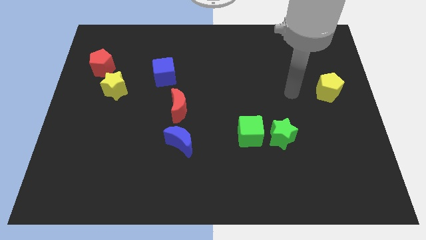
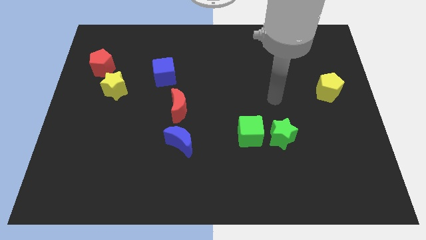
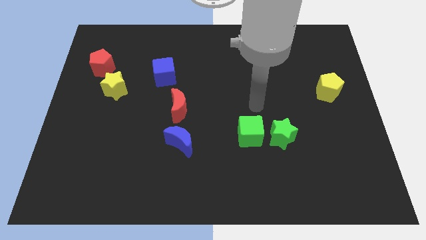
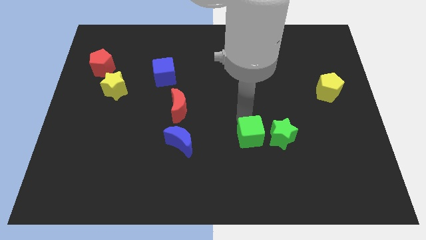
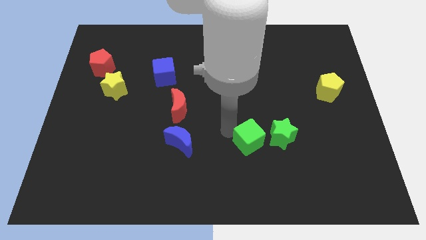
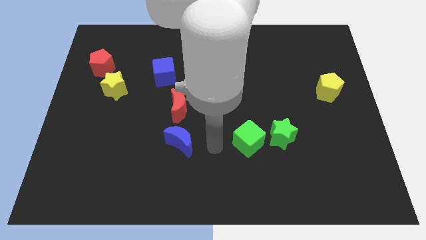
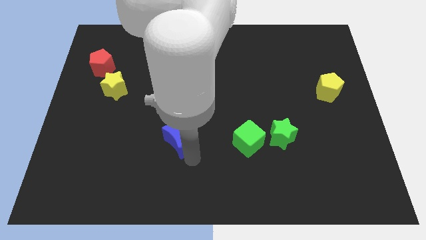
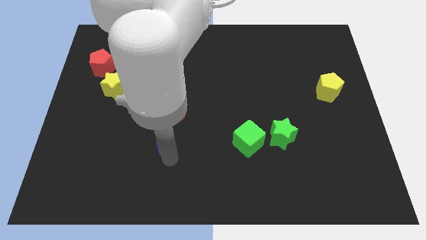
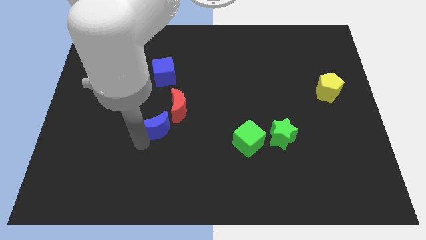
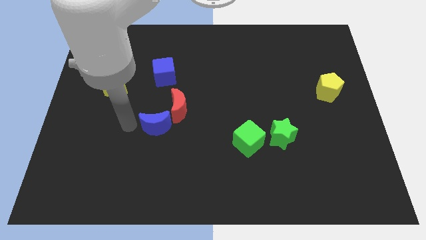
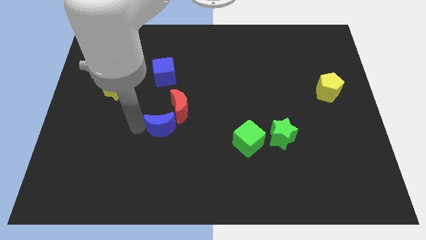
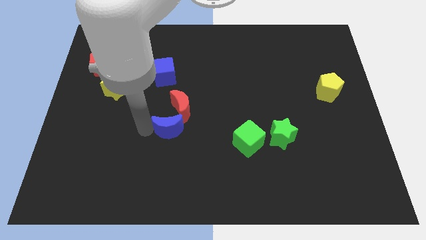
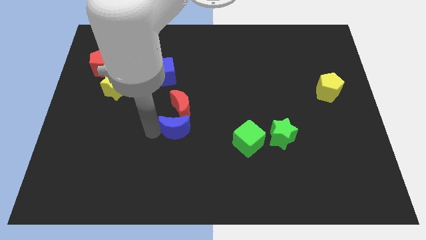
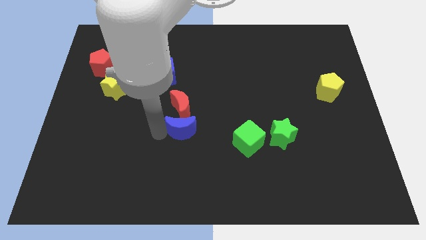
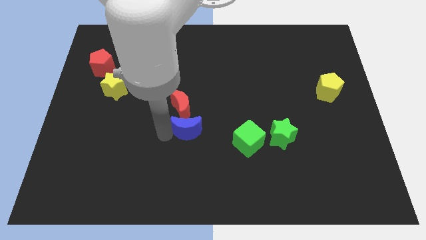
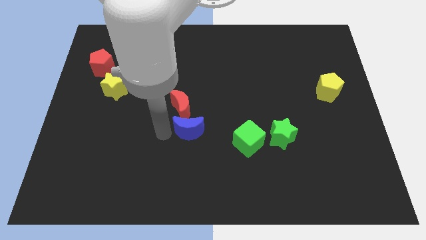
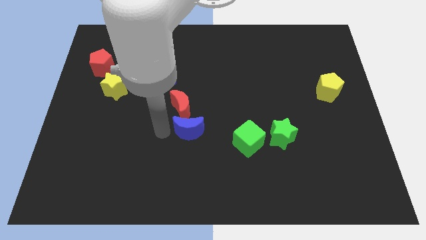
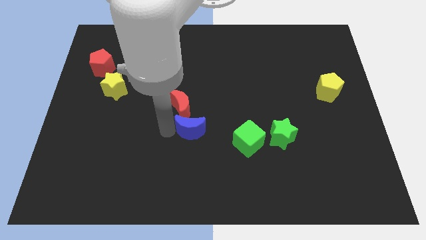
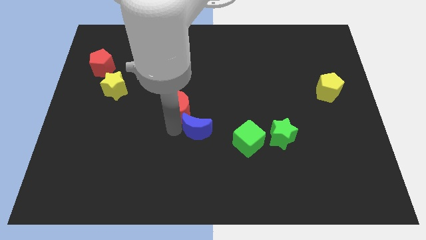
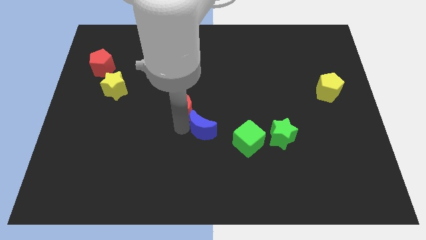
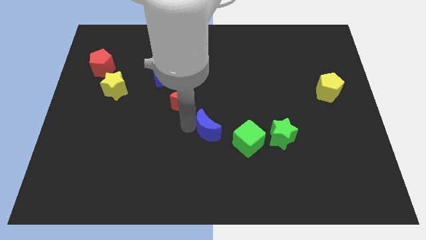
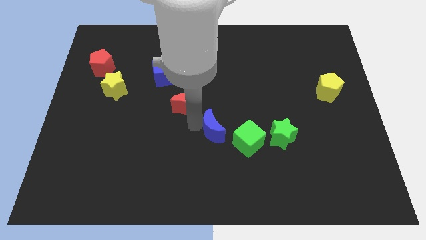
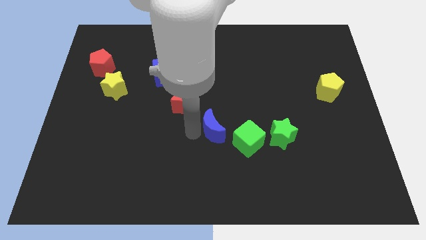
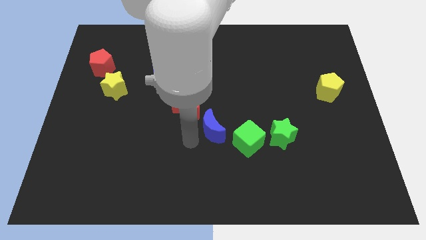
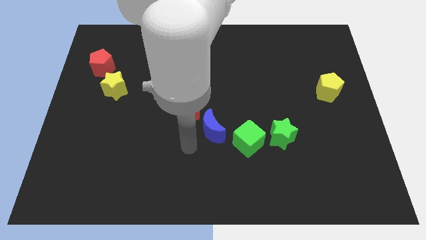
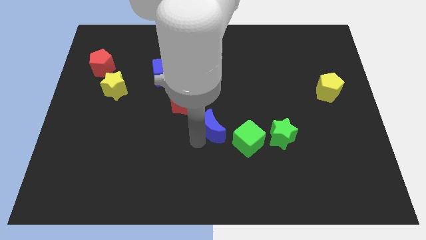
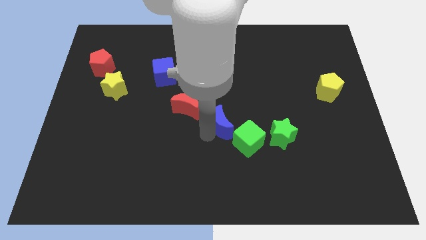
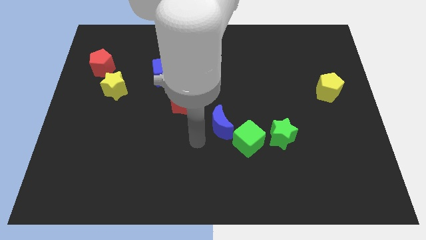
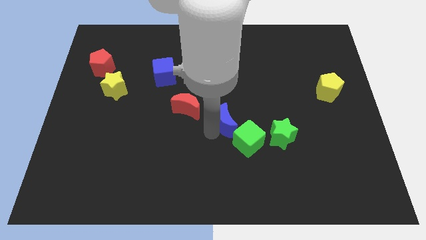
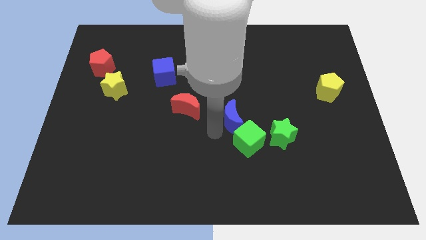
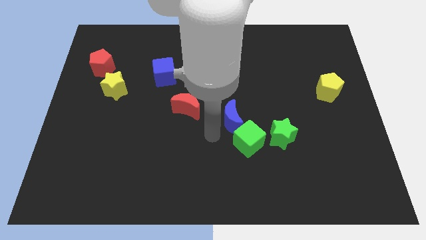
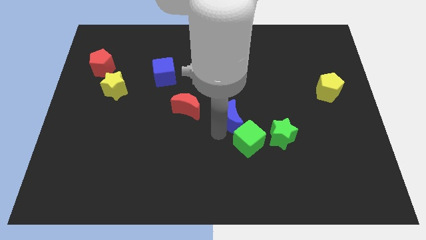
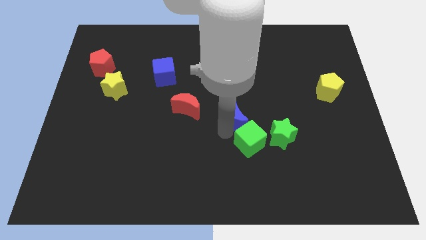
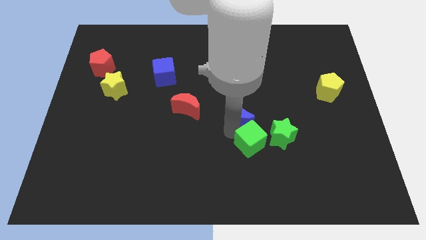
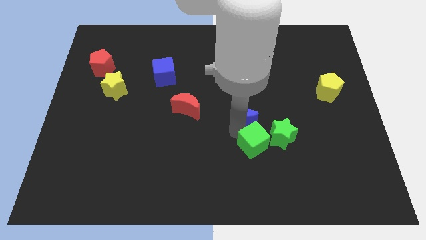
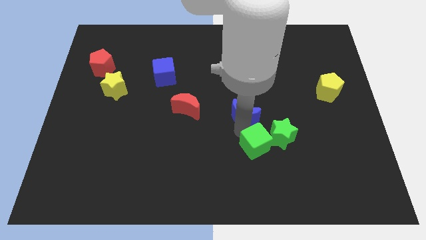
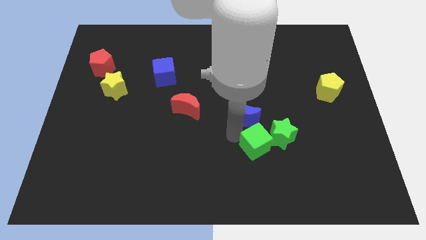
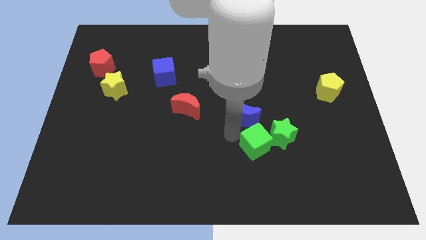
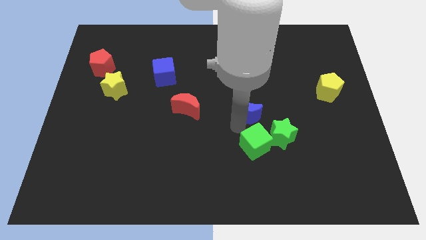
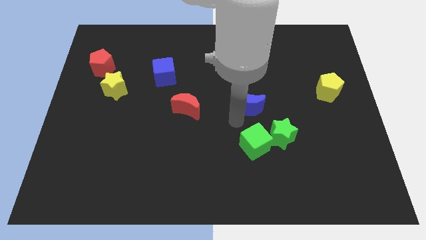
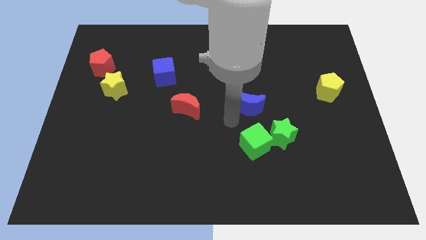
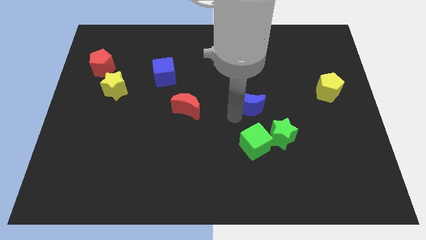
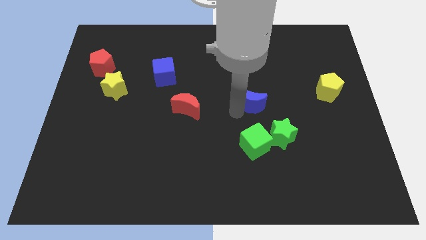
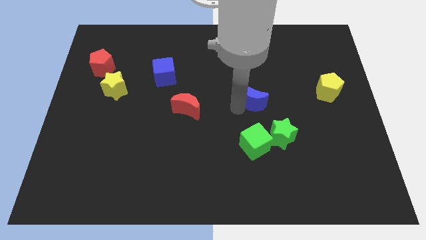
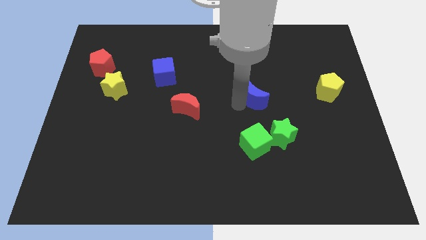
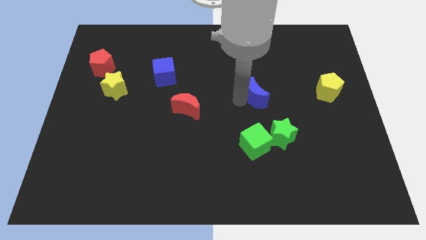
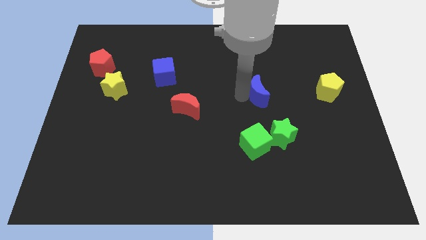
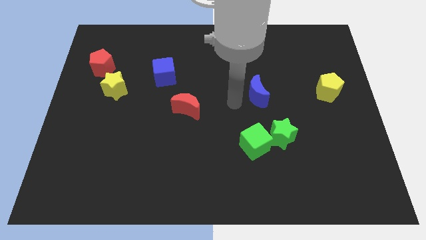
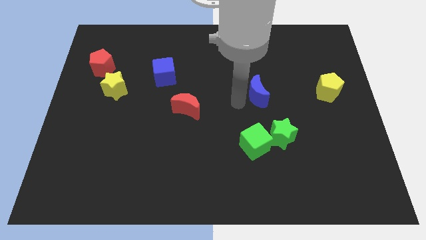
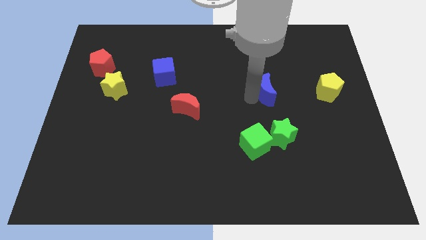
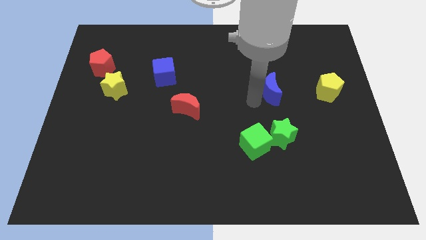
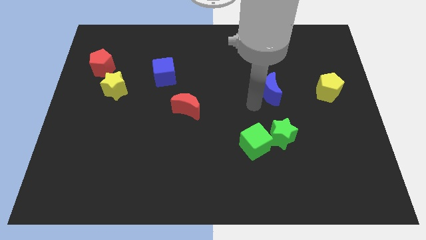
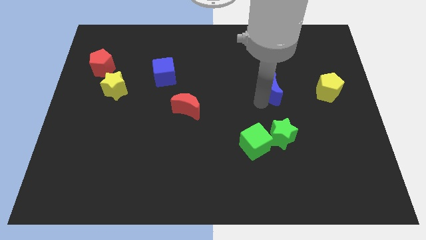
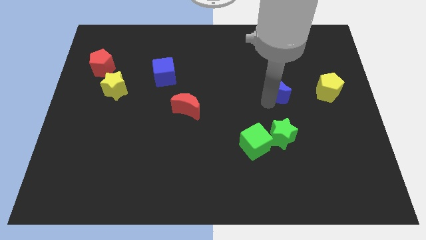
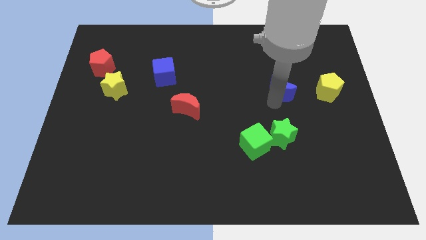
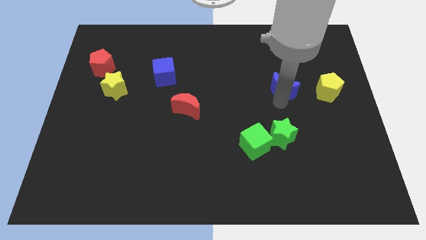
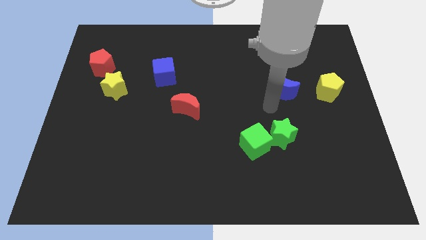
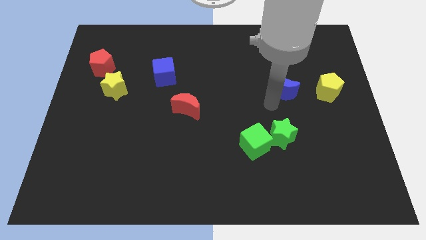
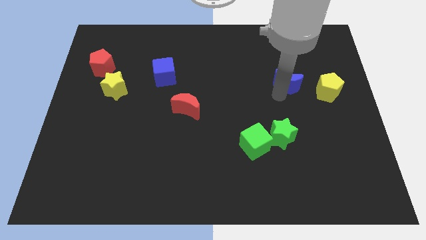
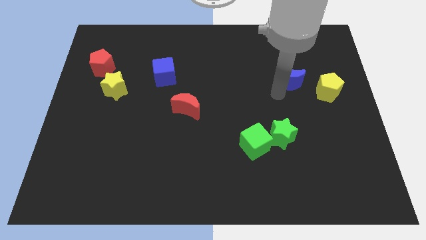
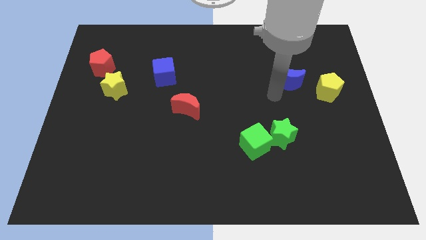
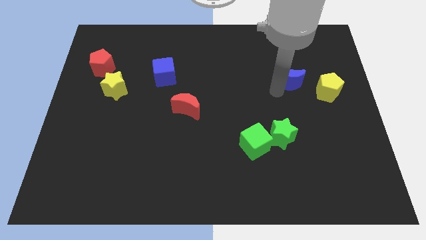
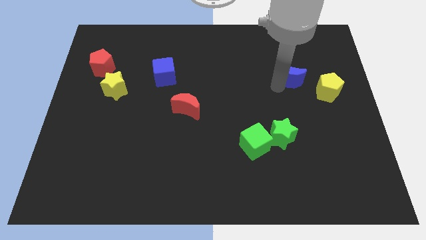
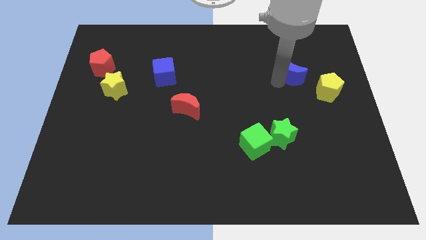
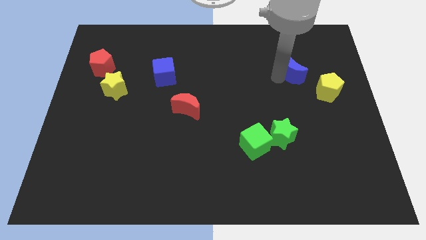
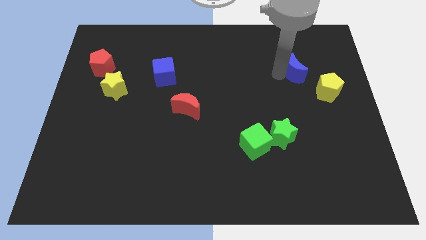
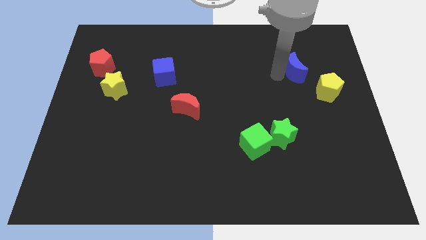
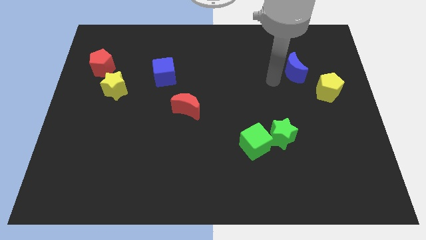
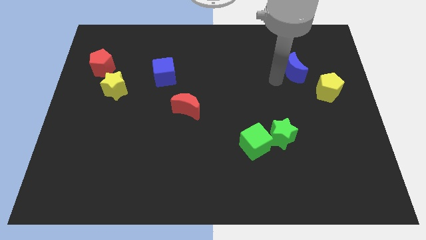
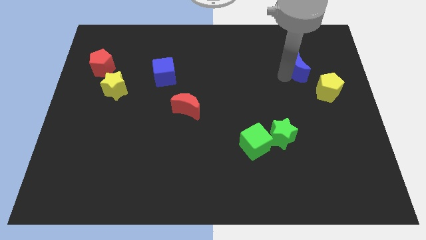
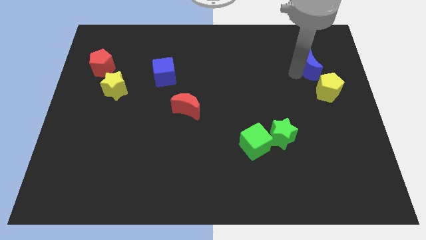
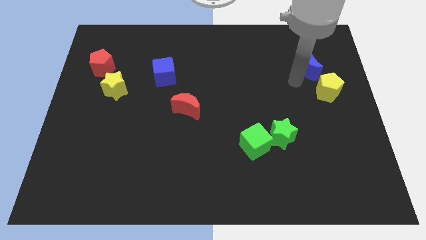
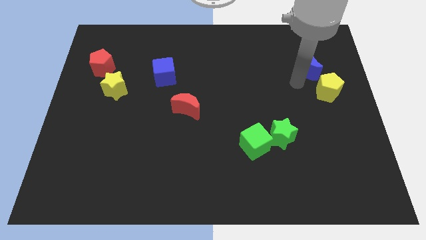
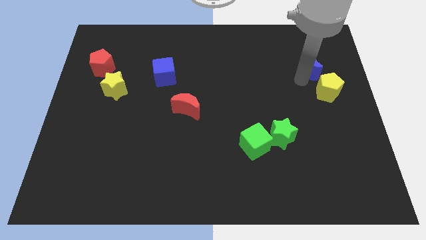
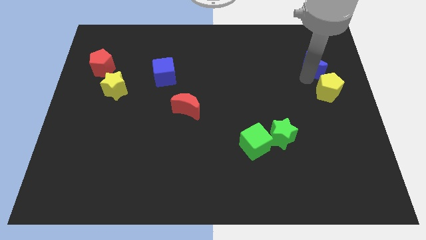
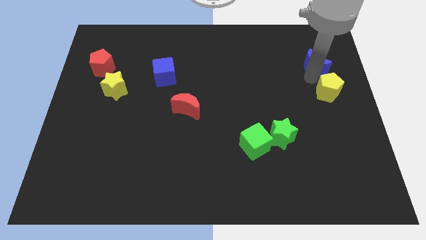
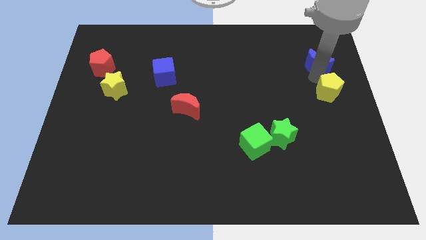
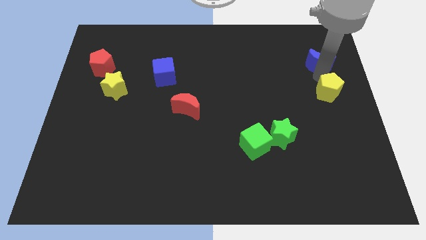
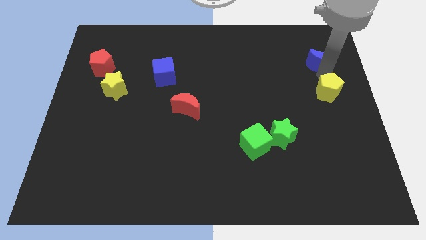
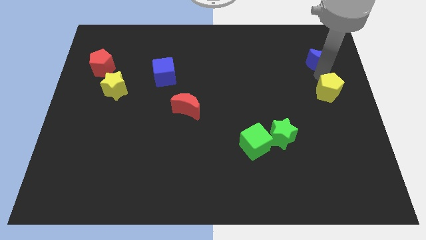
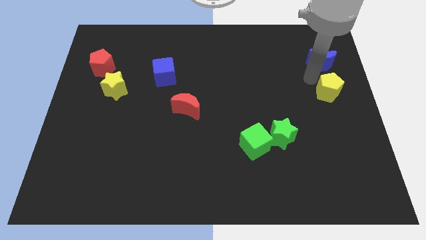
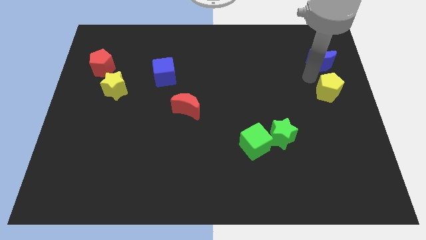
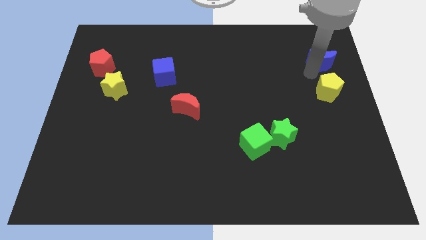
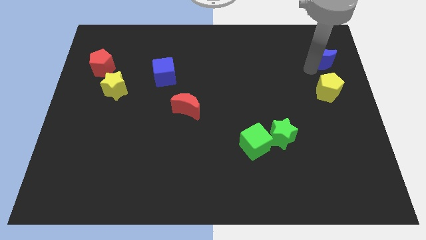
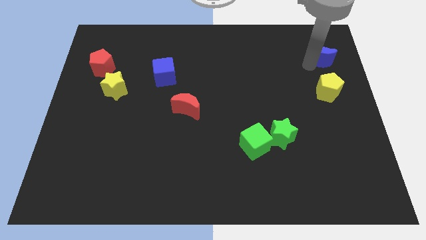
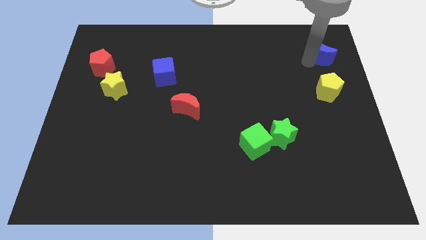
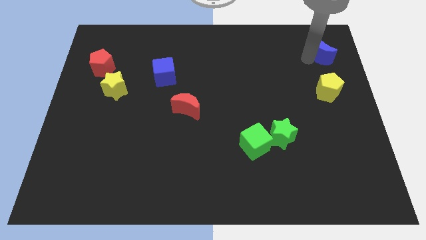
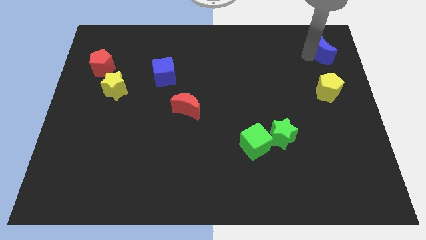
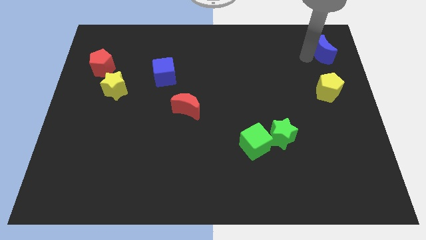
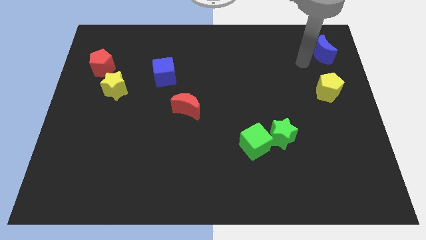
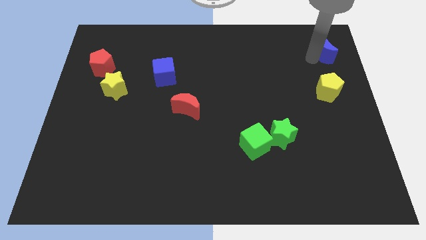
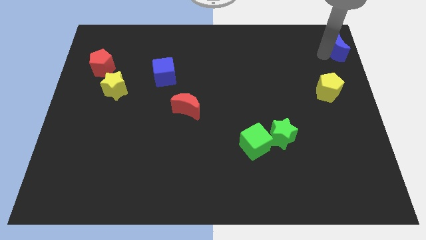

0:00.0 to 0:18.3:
slide the blue moon to the upper right corner
